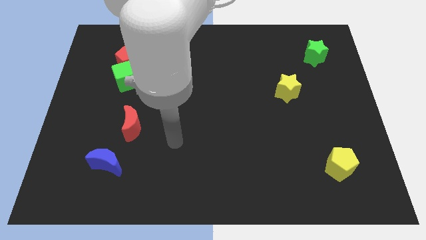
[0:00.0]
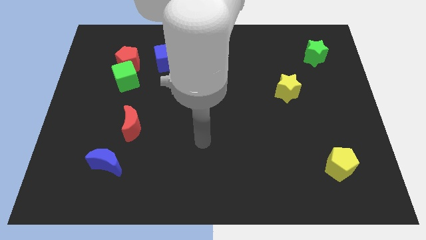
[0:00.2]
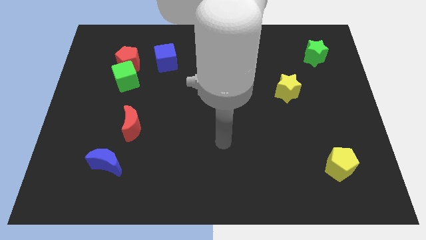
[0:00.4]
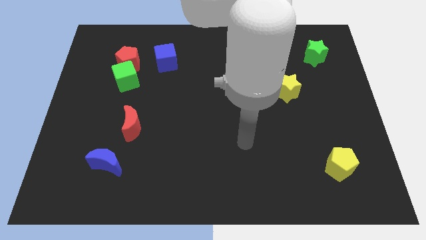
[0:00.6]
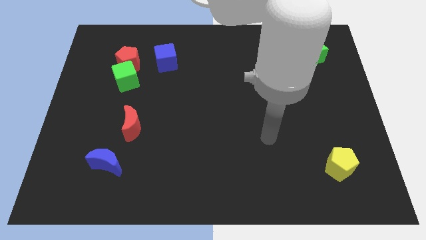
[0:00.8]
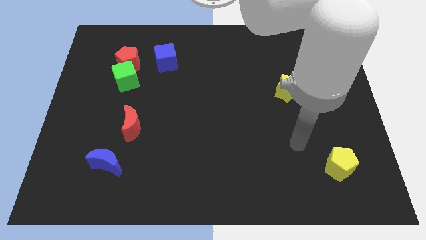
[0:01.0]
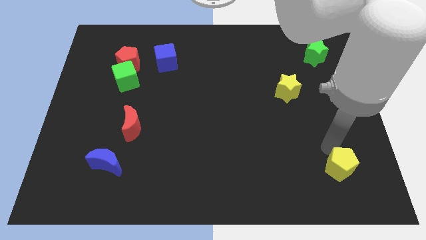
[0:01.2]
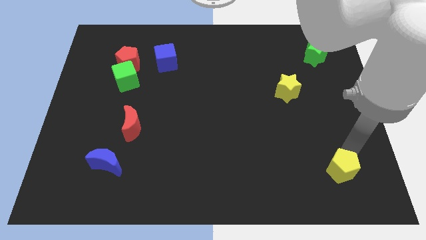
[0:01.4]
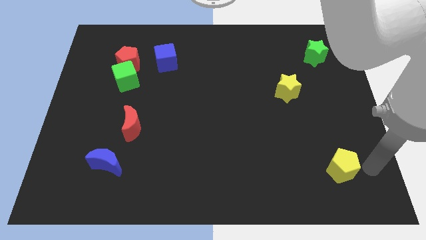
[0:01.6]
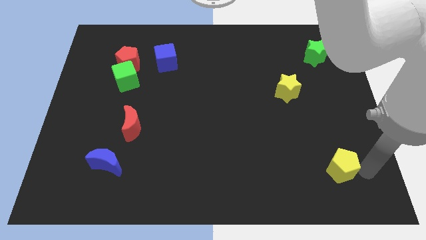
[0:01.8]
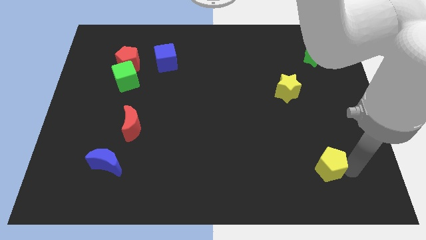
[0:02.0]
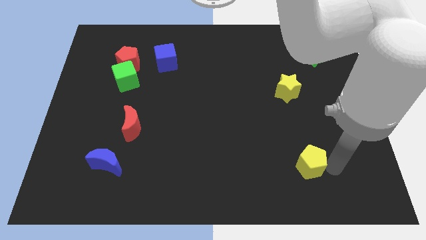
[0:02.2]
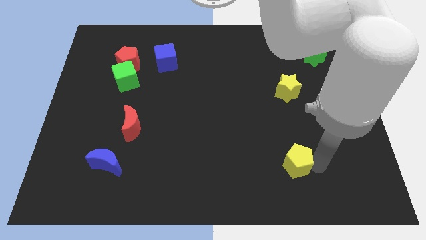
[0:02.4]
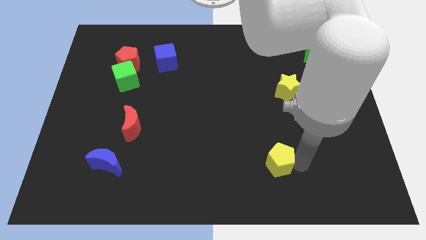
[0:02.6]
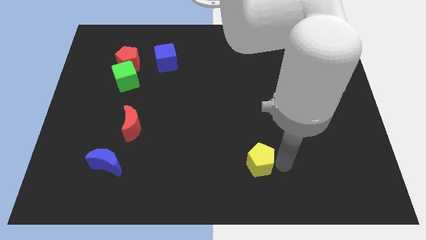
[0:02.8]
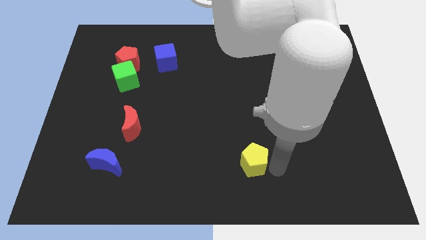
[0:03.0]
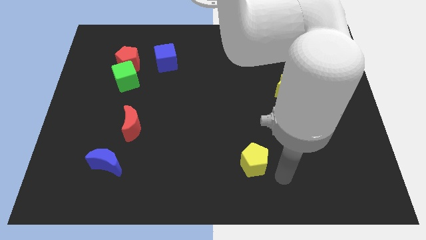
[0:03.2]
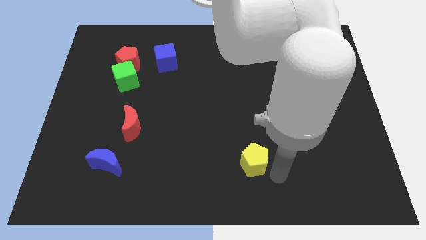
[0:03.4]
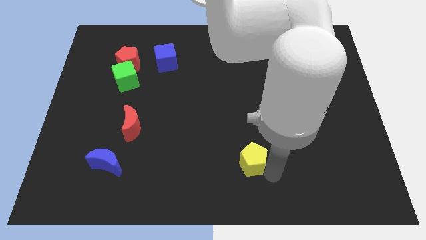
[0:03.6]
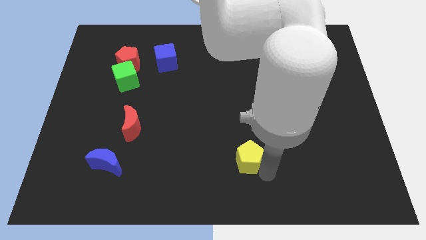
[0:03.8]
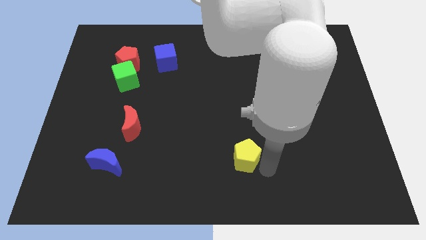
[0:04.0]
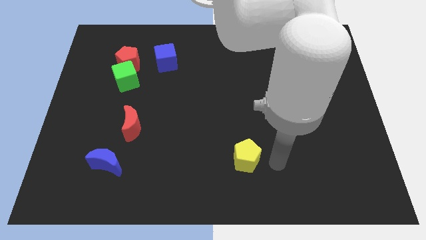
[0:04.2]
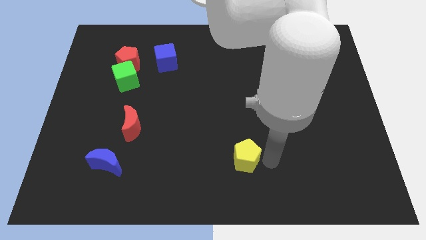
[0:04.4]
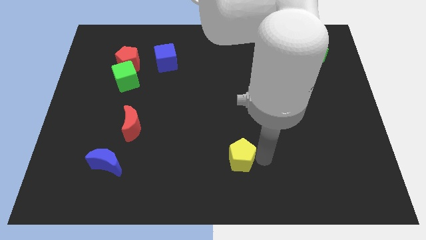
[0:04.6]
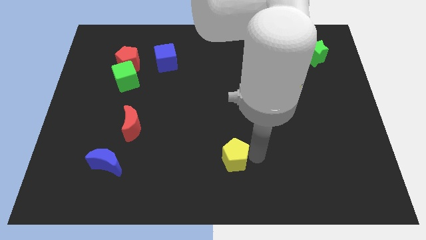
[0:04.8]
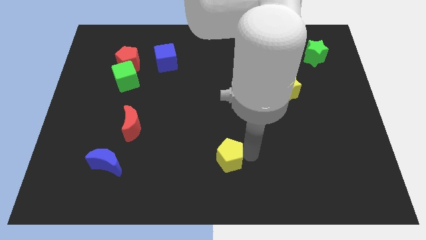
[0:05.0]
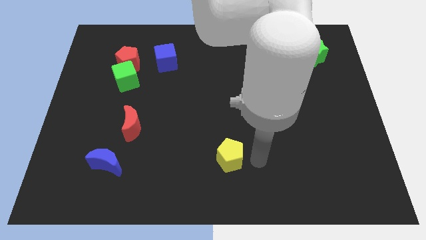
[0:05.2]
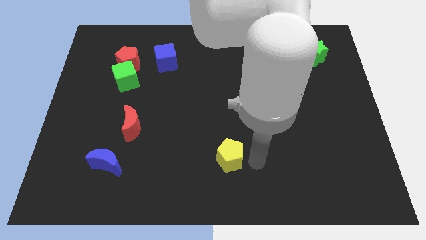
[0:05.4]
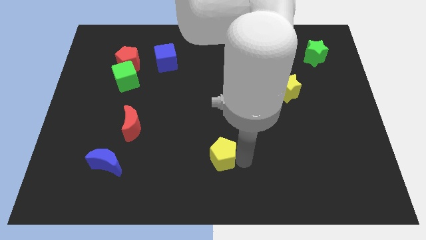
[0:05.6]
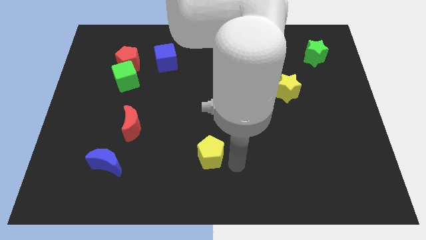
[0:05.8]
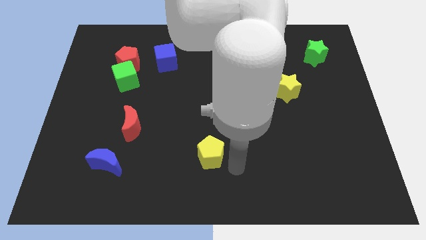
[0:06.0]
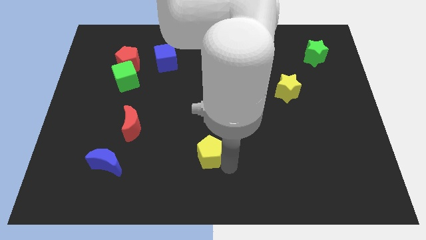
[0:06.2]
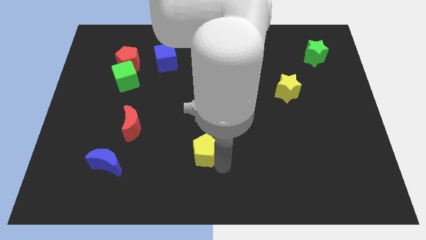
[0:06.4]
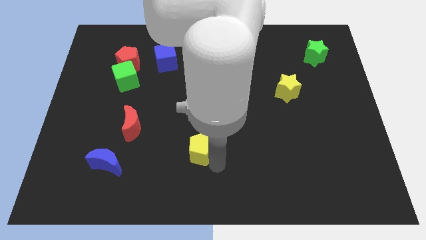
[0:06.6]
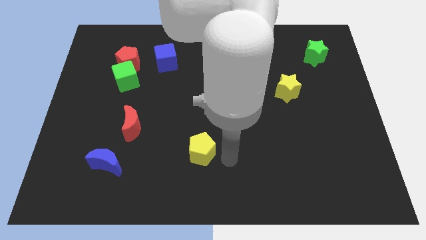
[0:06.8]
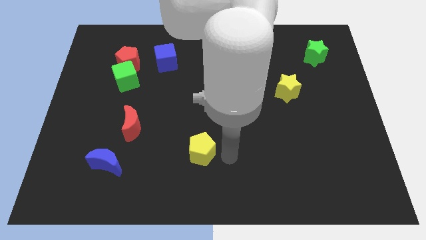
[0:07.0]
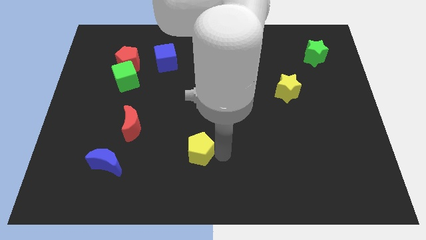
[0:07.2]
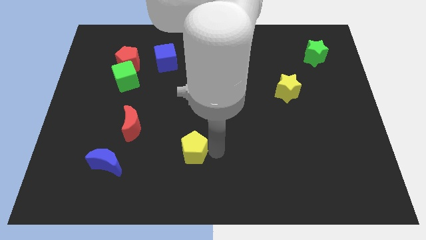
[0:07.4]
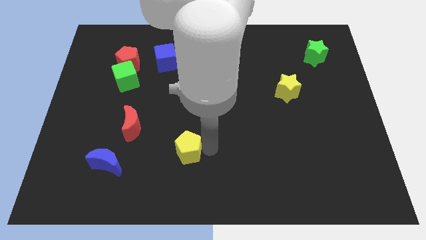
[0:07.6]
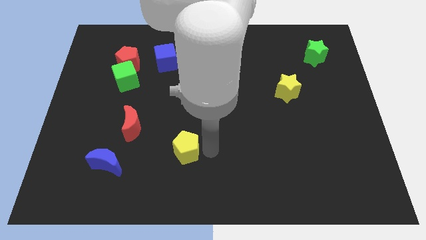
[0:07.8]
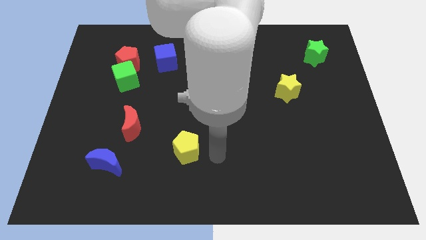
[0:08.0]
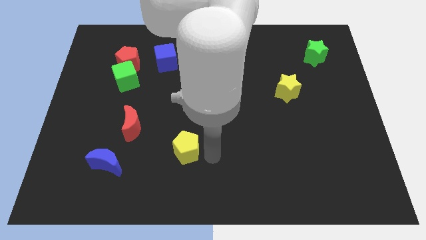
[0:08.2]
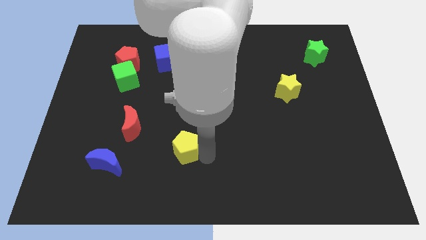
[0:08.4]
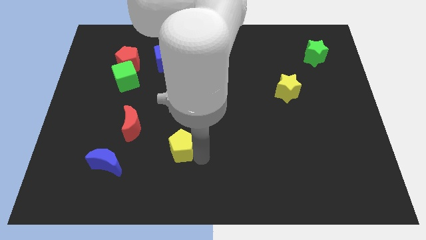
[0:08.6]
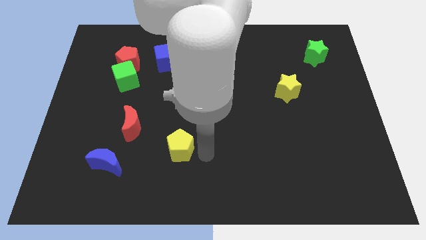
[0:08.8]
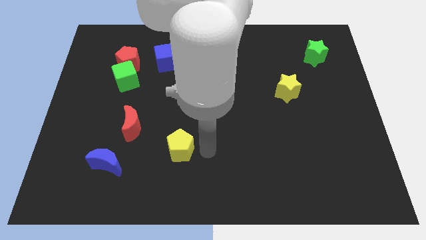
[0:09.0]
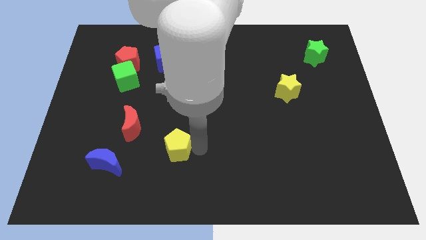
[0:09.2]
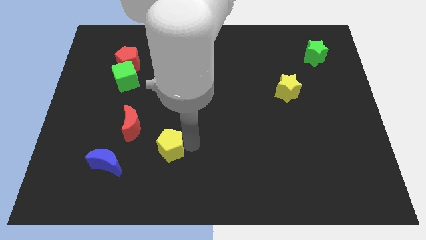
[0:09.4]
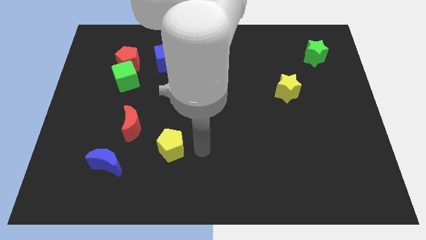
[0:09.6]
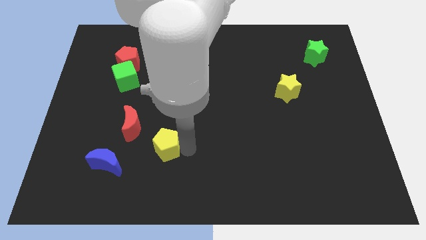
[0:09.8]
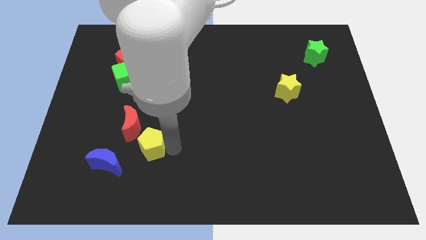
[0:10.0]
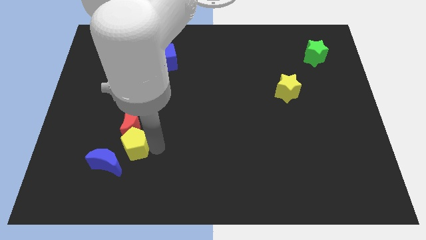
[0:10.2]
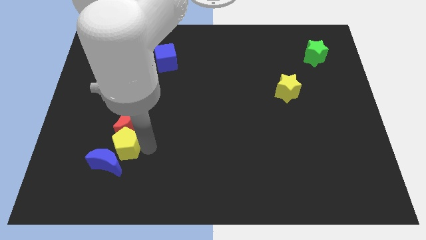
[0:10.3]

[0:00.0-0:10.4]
put the yellow pentagon to the bottom left side of the red moon

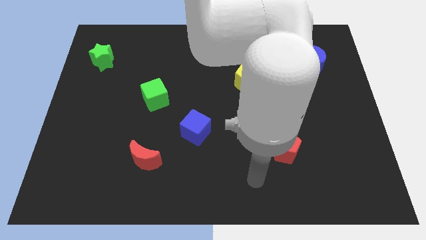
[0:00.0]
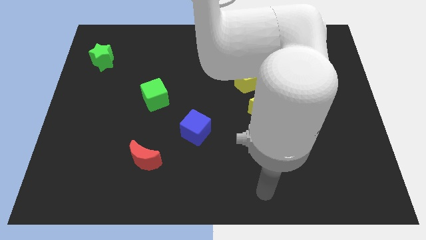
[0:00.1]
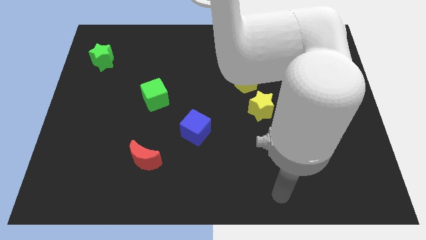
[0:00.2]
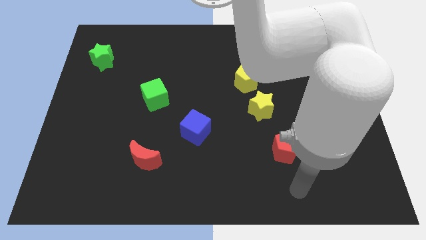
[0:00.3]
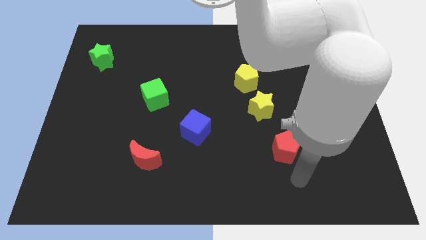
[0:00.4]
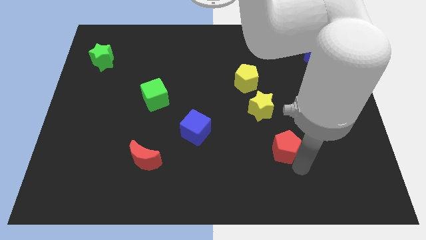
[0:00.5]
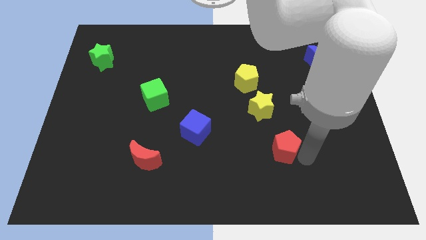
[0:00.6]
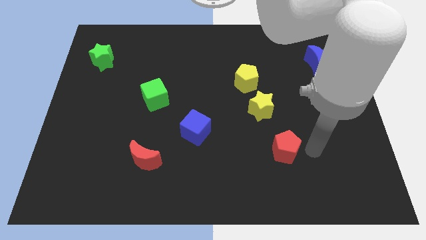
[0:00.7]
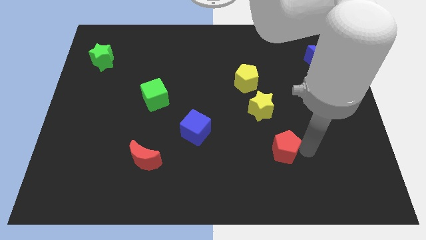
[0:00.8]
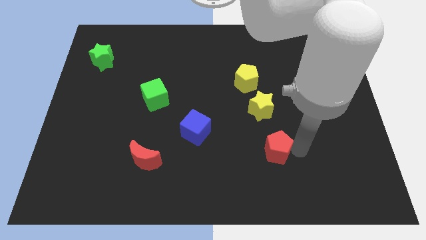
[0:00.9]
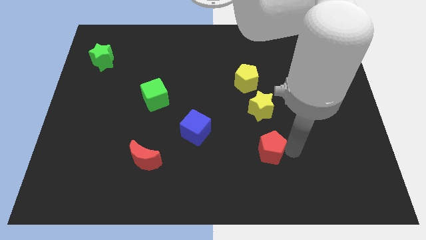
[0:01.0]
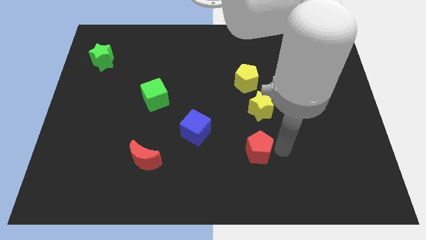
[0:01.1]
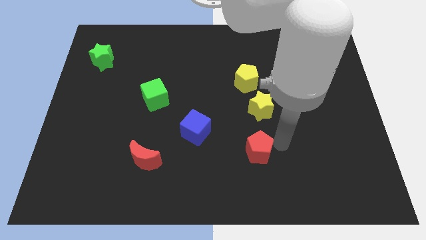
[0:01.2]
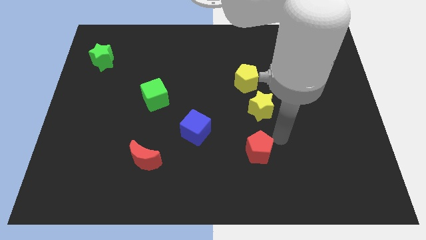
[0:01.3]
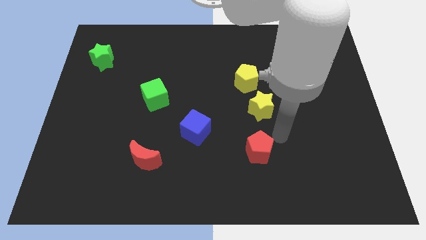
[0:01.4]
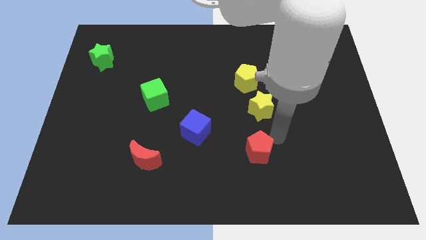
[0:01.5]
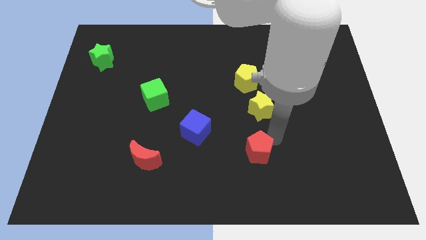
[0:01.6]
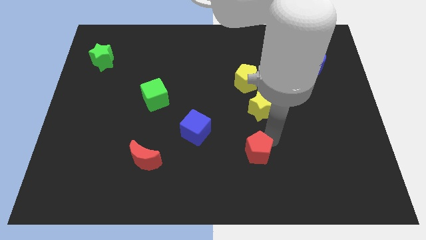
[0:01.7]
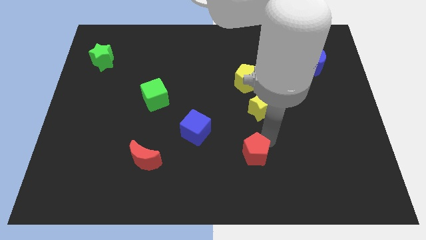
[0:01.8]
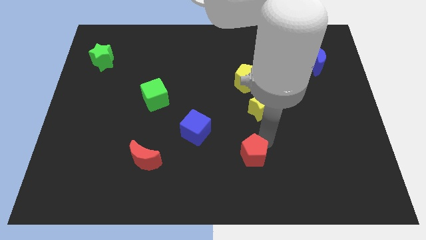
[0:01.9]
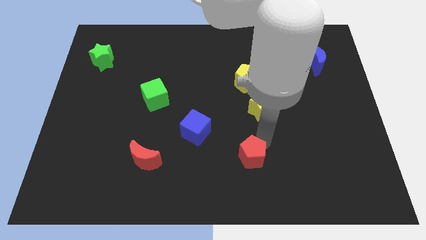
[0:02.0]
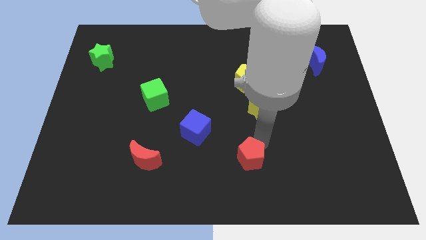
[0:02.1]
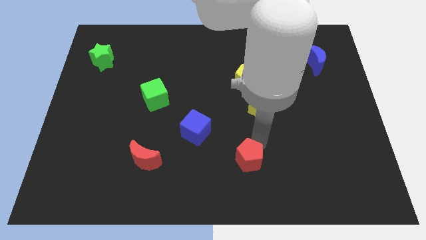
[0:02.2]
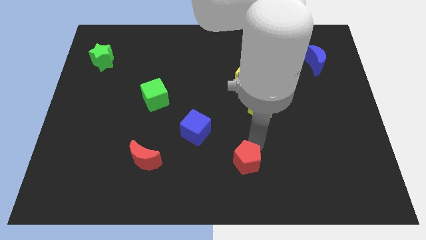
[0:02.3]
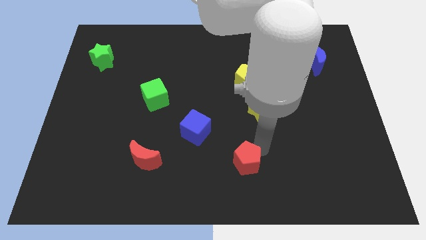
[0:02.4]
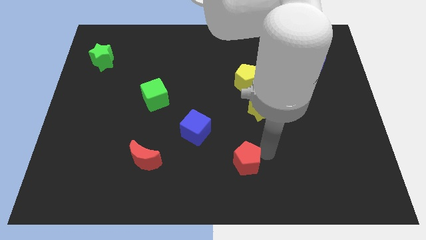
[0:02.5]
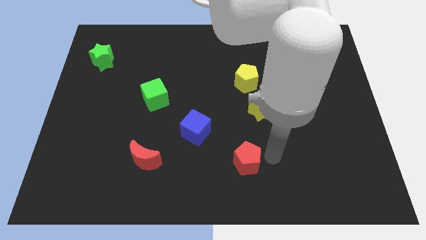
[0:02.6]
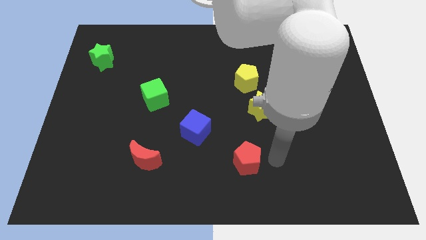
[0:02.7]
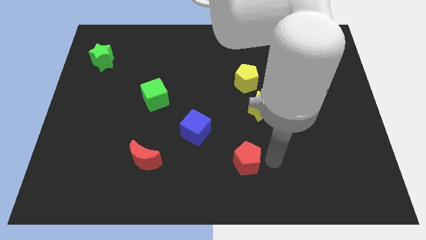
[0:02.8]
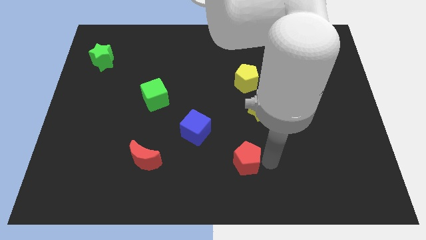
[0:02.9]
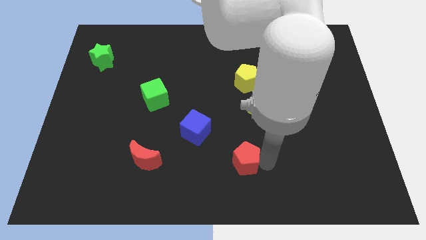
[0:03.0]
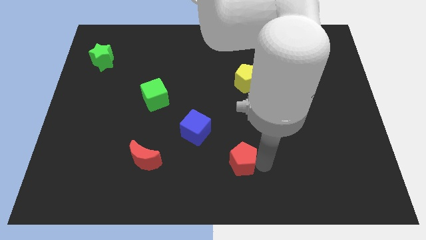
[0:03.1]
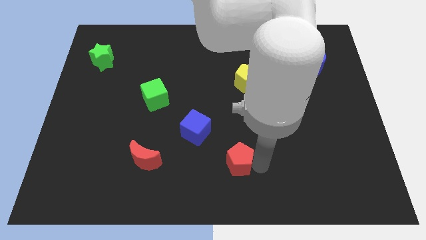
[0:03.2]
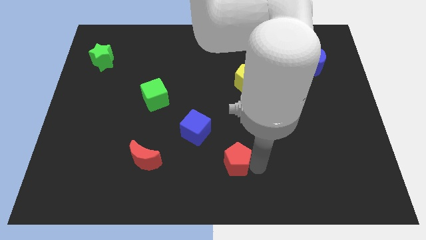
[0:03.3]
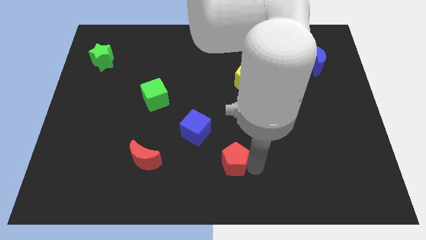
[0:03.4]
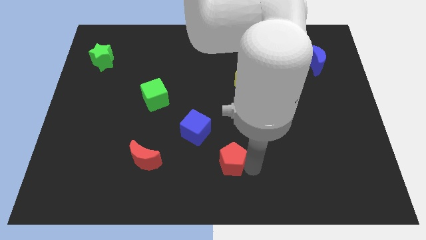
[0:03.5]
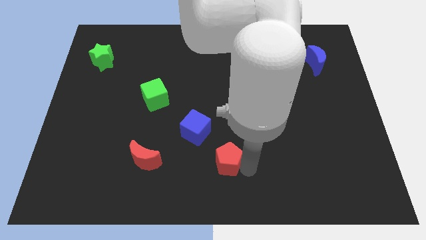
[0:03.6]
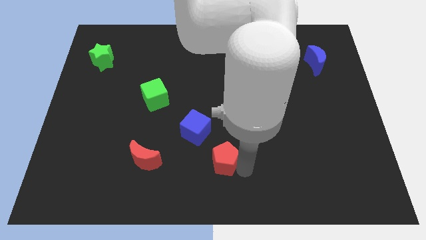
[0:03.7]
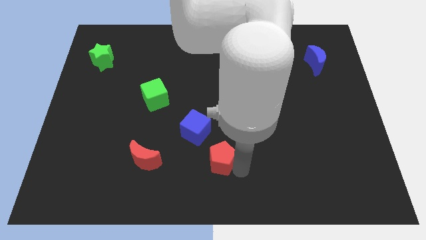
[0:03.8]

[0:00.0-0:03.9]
put the red pentagon just right of the red moon
